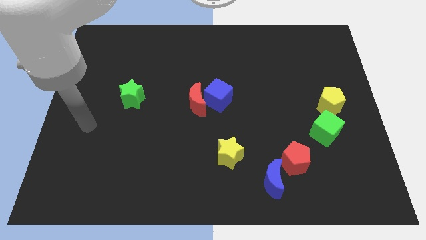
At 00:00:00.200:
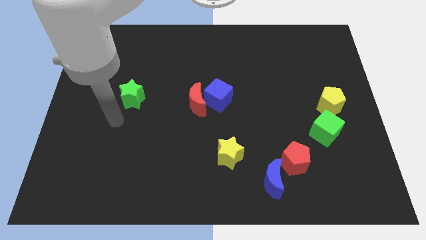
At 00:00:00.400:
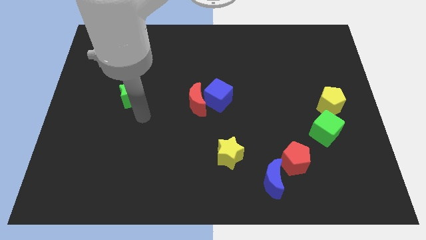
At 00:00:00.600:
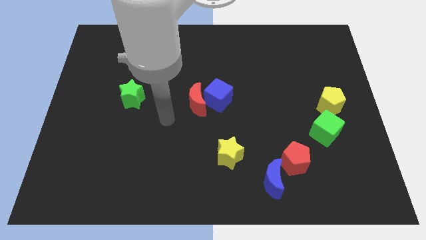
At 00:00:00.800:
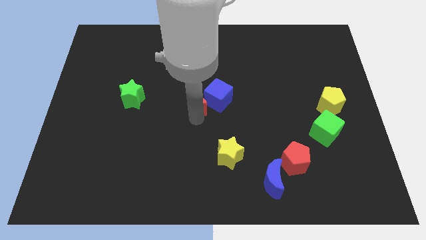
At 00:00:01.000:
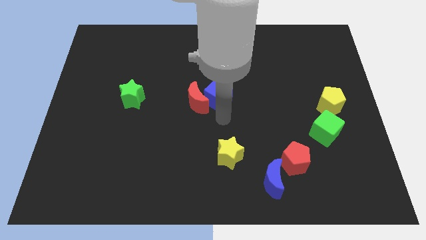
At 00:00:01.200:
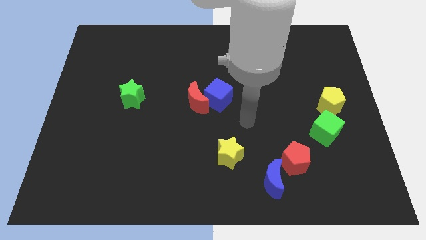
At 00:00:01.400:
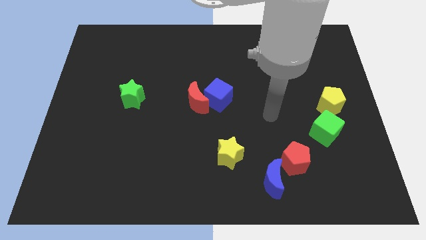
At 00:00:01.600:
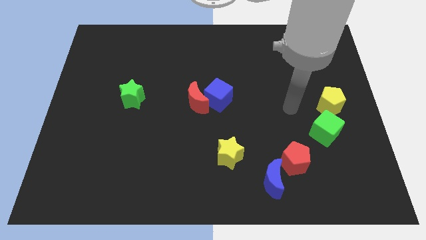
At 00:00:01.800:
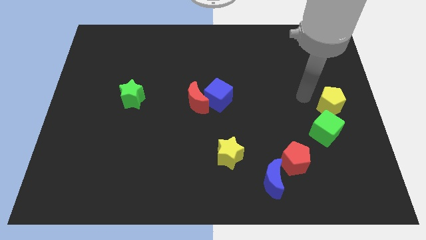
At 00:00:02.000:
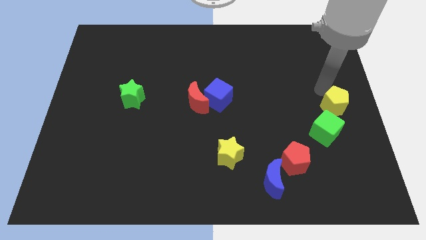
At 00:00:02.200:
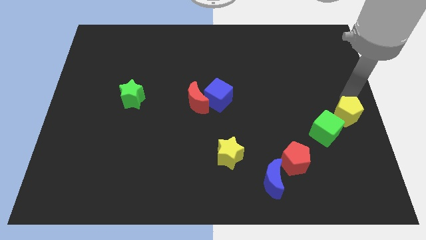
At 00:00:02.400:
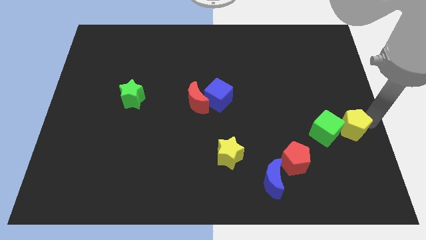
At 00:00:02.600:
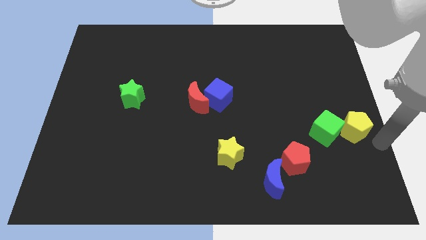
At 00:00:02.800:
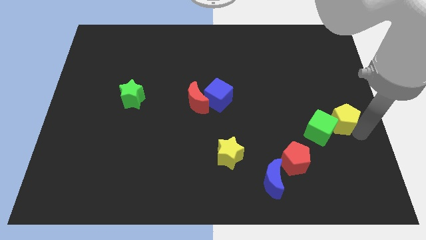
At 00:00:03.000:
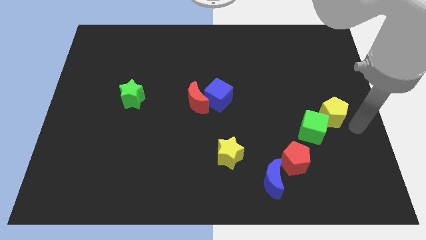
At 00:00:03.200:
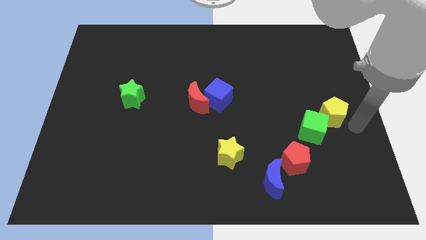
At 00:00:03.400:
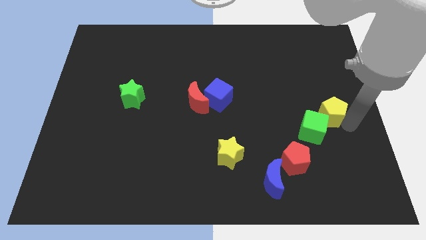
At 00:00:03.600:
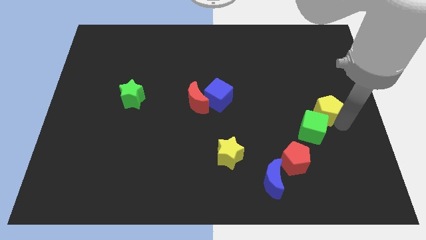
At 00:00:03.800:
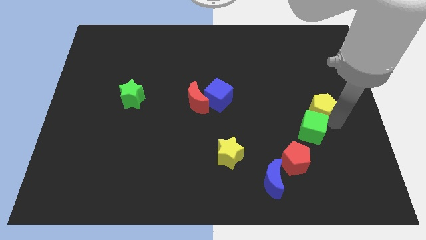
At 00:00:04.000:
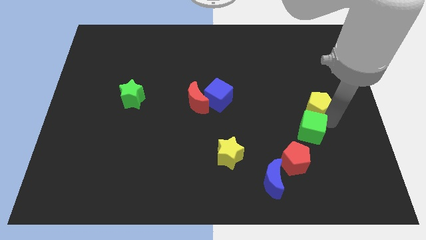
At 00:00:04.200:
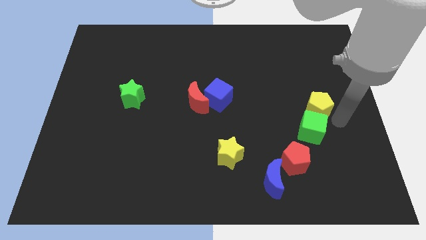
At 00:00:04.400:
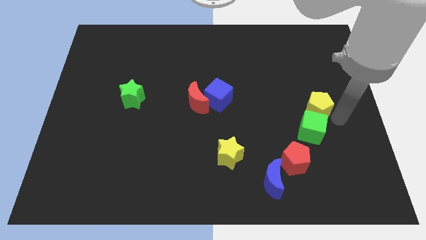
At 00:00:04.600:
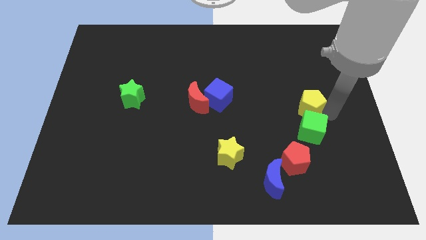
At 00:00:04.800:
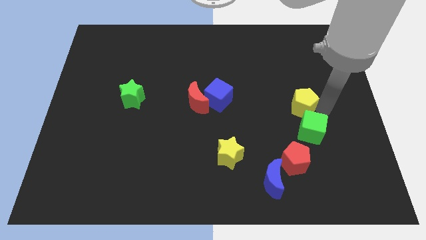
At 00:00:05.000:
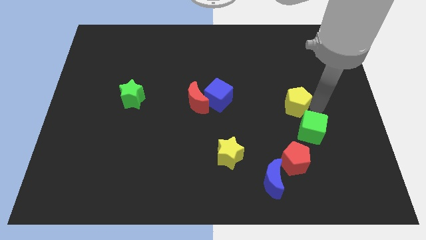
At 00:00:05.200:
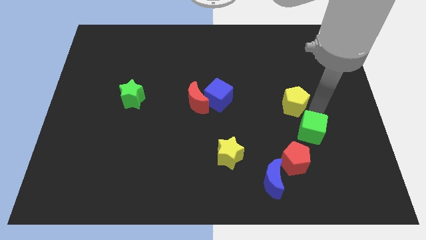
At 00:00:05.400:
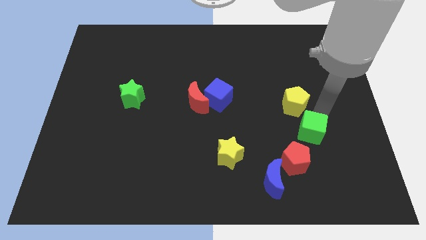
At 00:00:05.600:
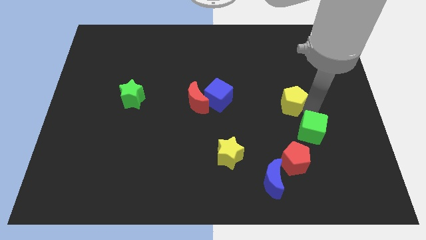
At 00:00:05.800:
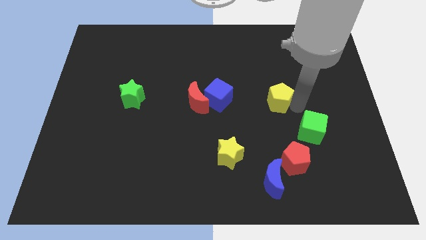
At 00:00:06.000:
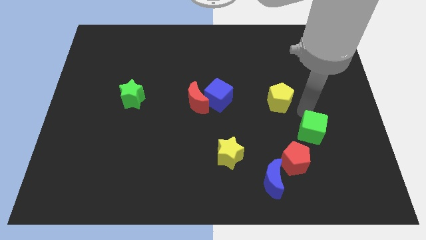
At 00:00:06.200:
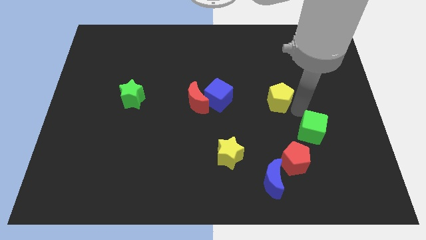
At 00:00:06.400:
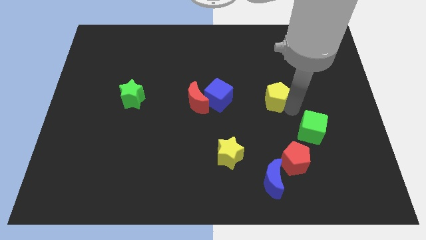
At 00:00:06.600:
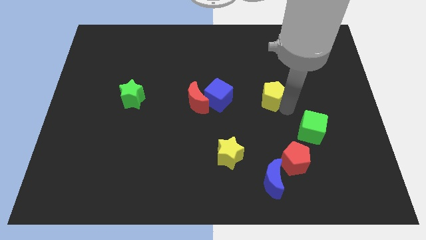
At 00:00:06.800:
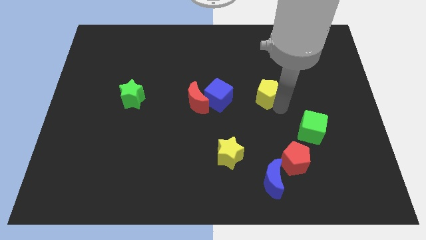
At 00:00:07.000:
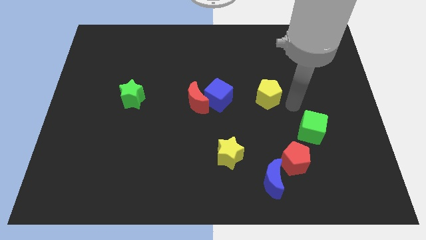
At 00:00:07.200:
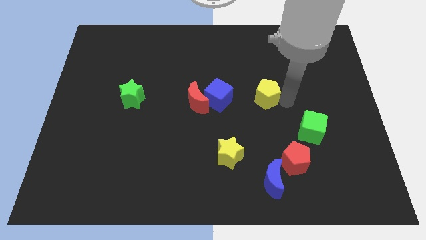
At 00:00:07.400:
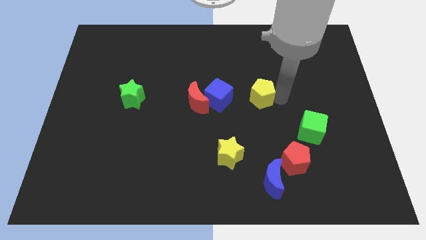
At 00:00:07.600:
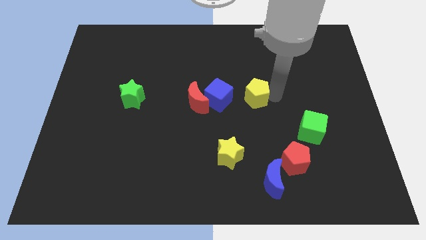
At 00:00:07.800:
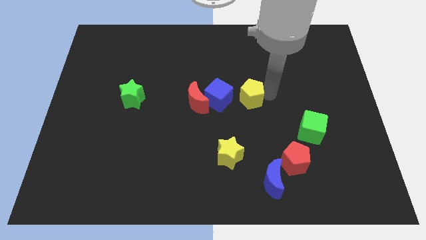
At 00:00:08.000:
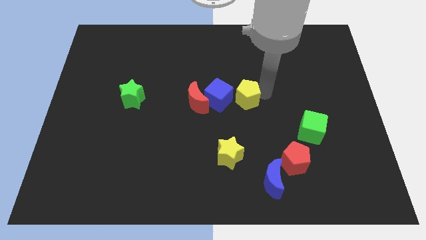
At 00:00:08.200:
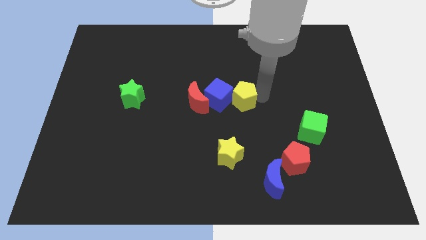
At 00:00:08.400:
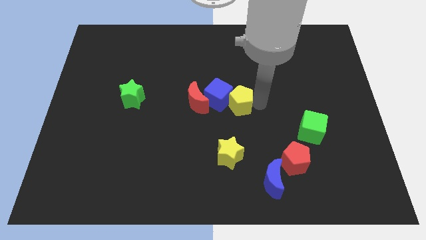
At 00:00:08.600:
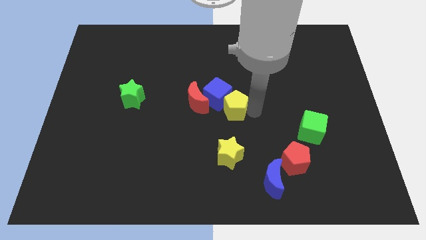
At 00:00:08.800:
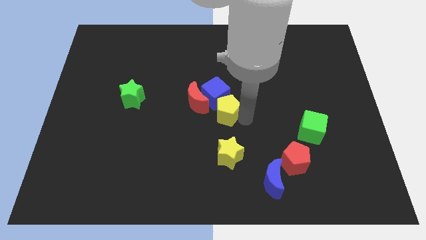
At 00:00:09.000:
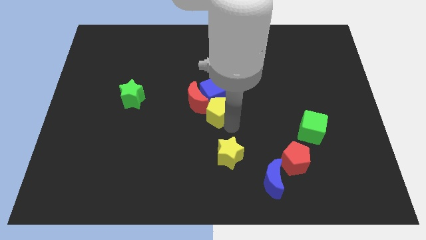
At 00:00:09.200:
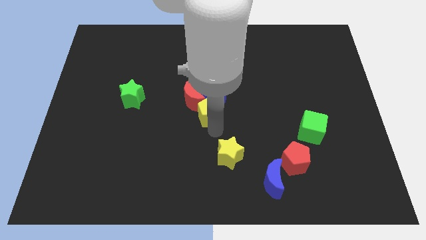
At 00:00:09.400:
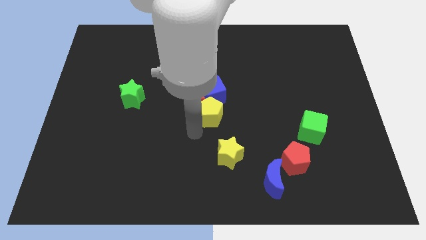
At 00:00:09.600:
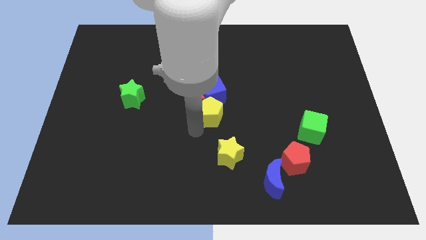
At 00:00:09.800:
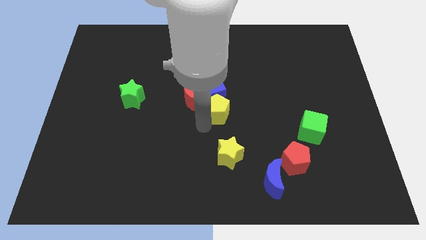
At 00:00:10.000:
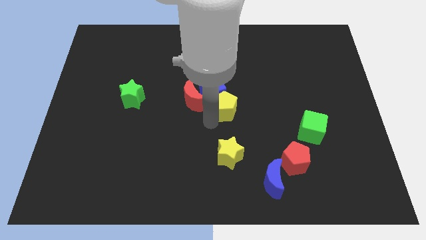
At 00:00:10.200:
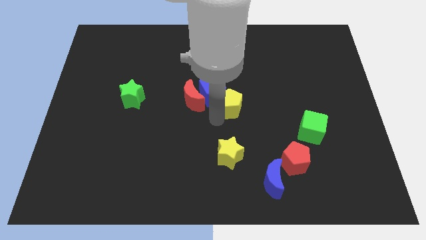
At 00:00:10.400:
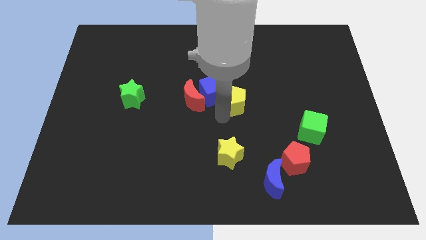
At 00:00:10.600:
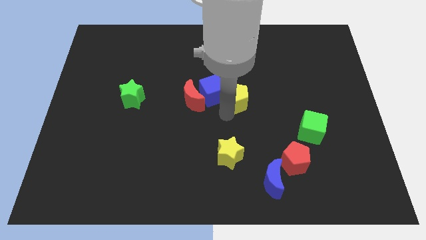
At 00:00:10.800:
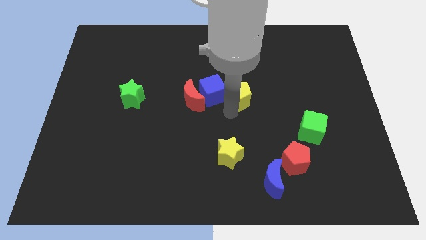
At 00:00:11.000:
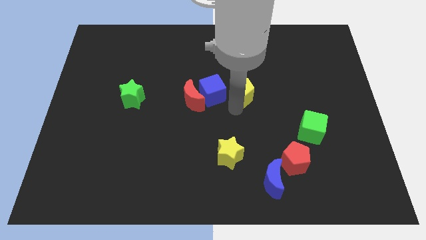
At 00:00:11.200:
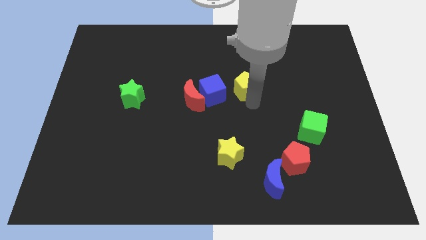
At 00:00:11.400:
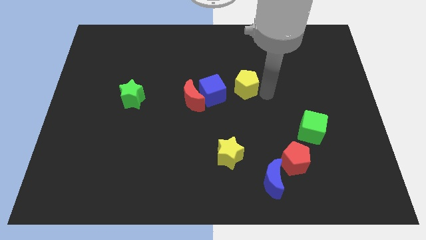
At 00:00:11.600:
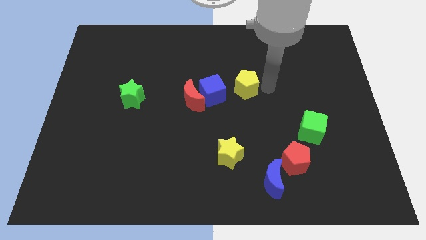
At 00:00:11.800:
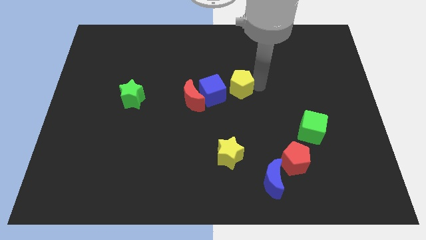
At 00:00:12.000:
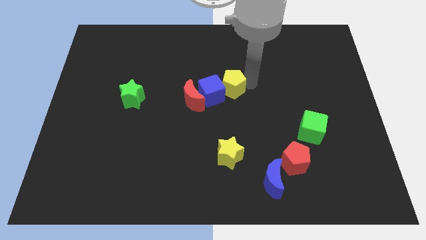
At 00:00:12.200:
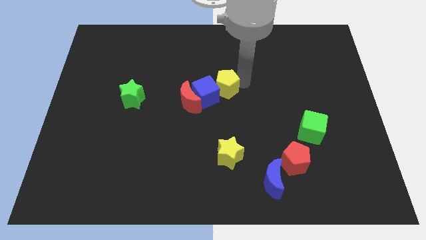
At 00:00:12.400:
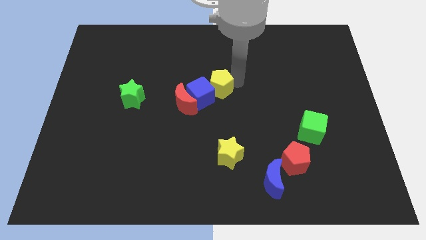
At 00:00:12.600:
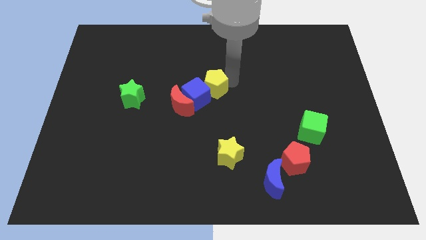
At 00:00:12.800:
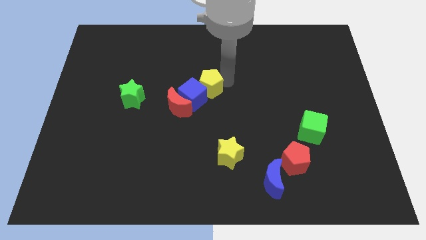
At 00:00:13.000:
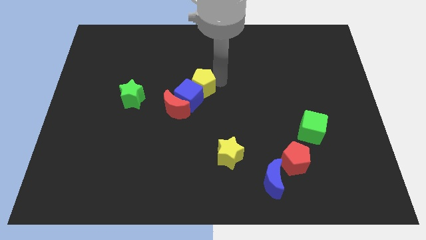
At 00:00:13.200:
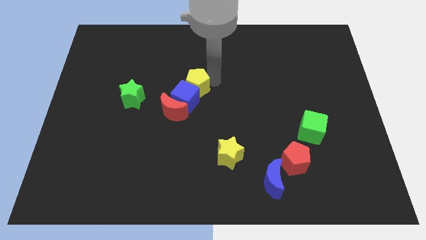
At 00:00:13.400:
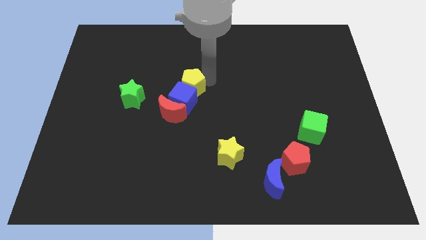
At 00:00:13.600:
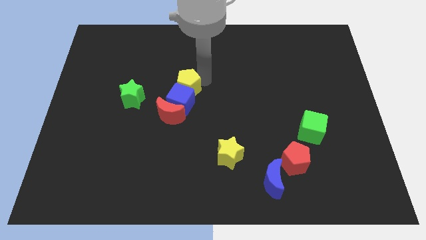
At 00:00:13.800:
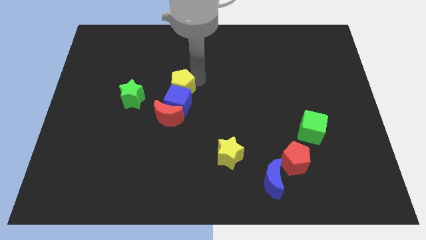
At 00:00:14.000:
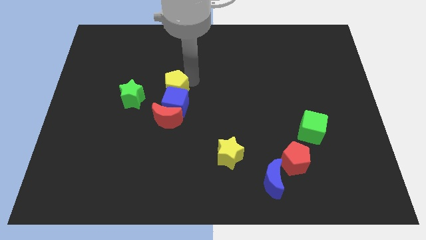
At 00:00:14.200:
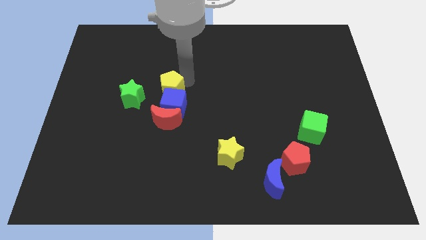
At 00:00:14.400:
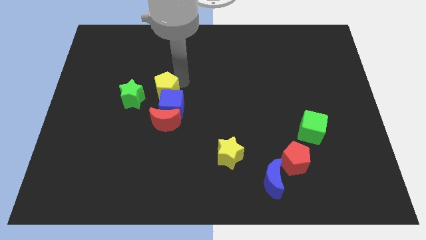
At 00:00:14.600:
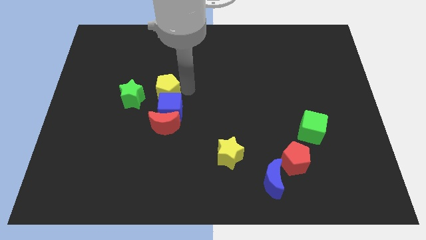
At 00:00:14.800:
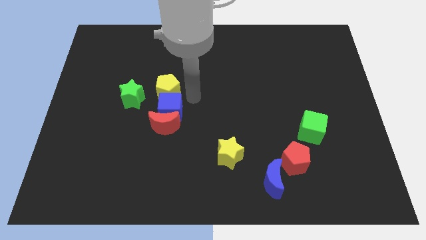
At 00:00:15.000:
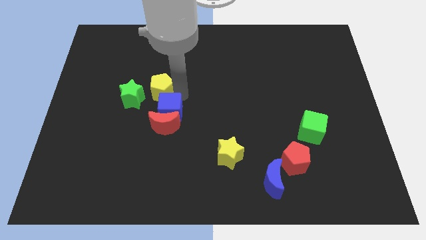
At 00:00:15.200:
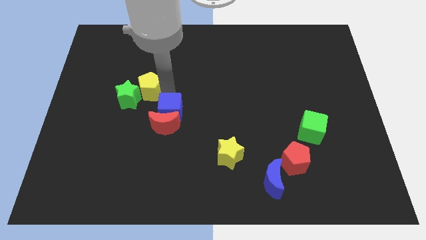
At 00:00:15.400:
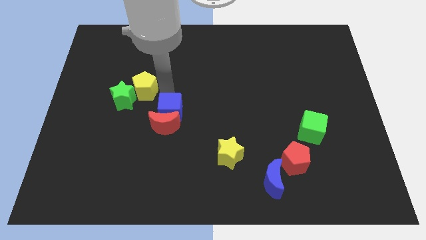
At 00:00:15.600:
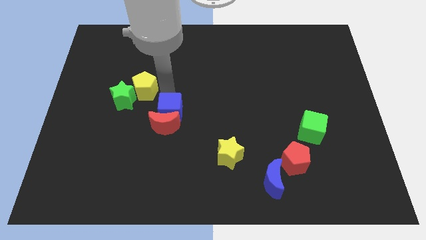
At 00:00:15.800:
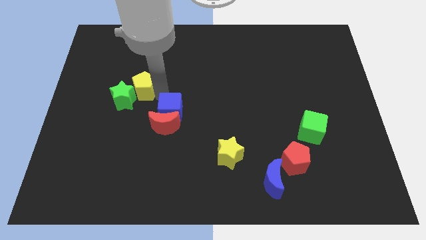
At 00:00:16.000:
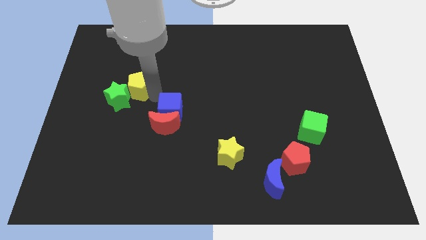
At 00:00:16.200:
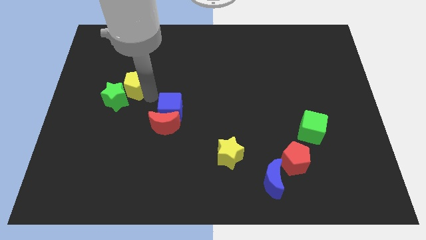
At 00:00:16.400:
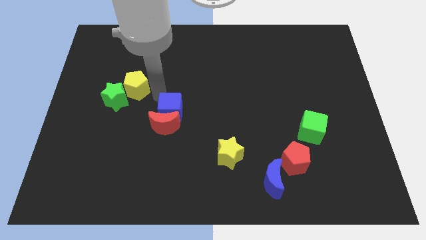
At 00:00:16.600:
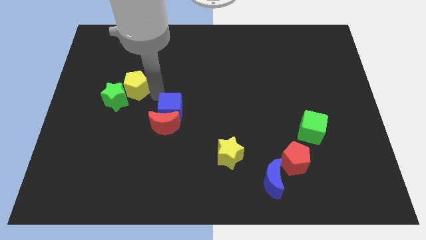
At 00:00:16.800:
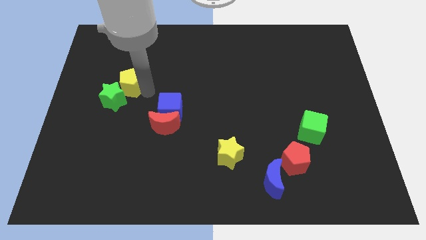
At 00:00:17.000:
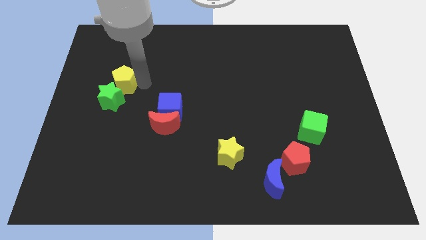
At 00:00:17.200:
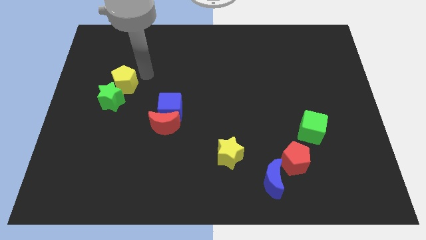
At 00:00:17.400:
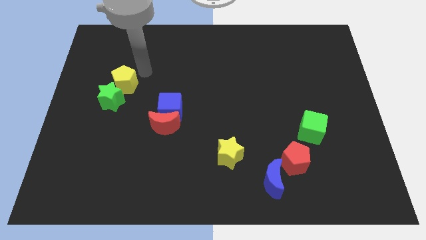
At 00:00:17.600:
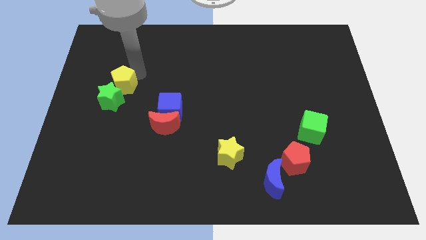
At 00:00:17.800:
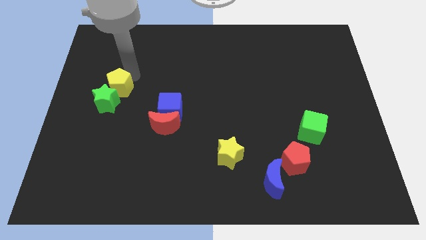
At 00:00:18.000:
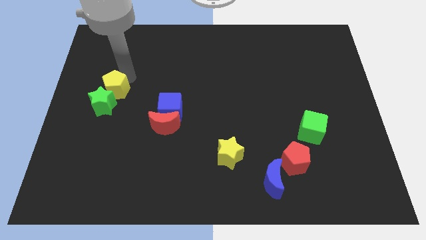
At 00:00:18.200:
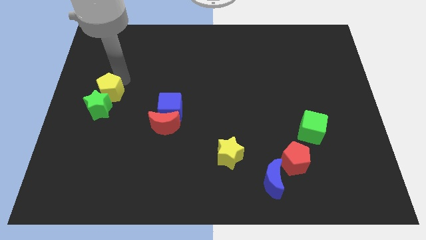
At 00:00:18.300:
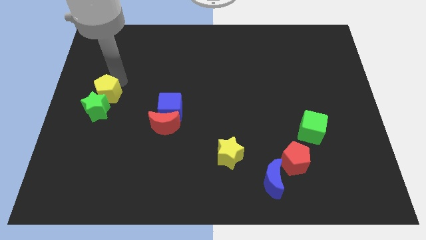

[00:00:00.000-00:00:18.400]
push the yellow pentagon to the center left
